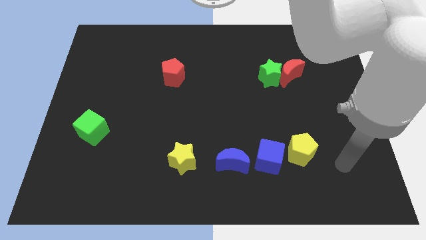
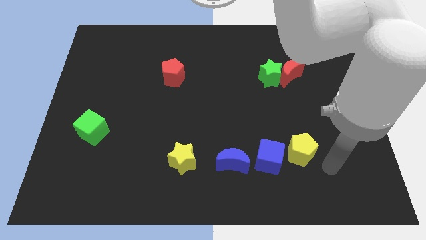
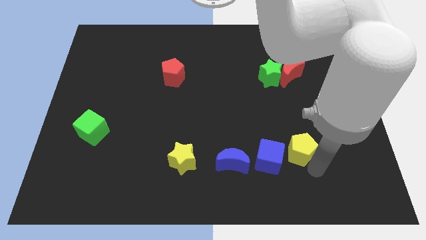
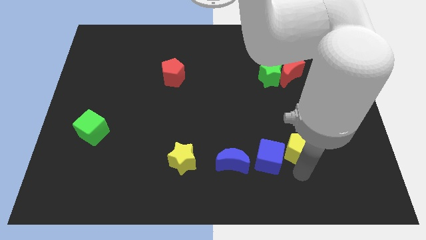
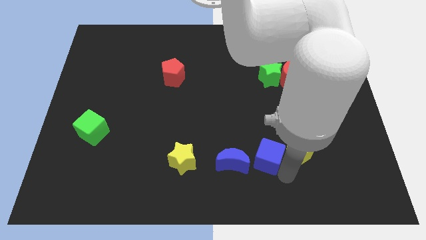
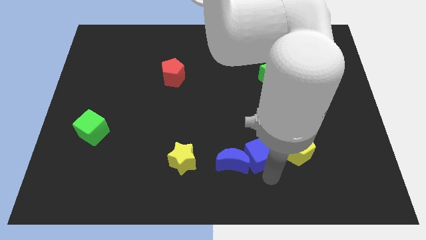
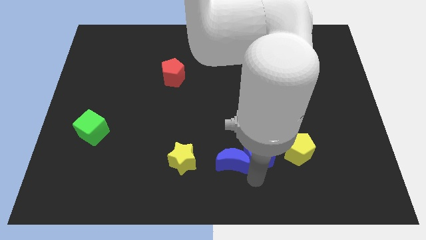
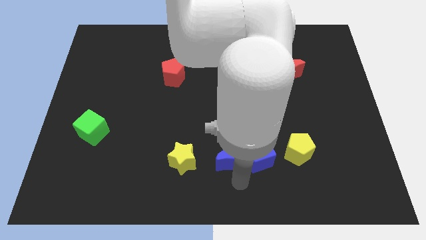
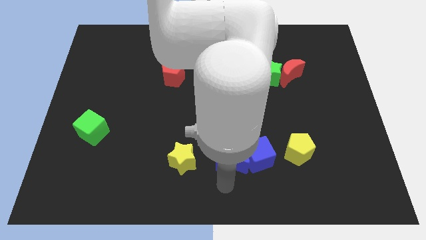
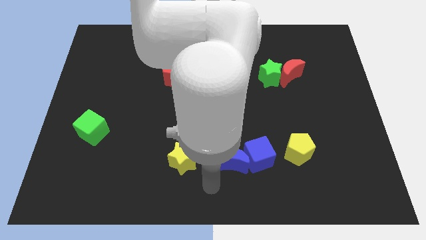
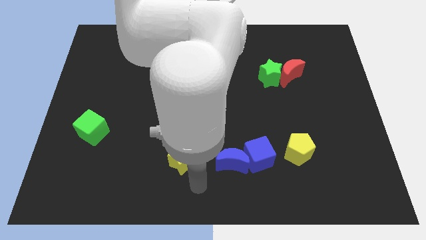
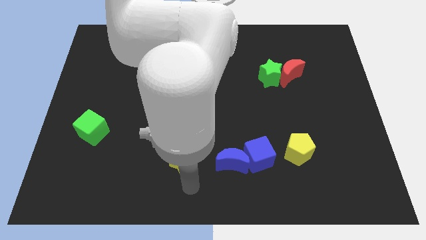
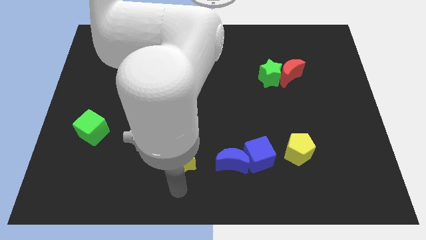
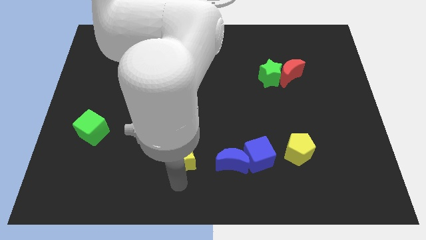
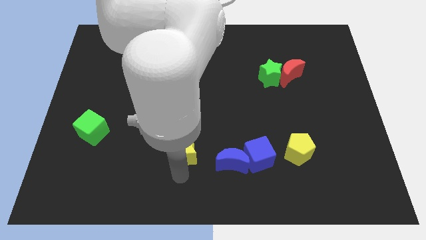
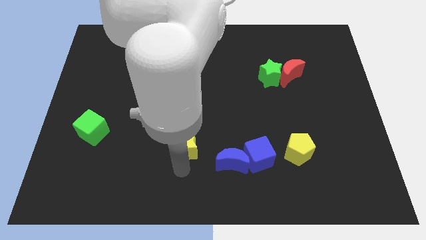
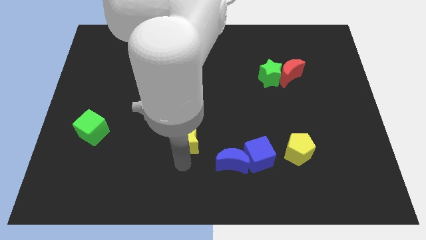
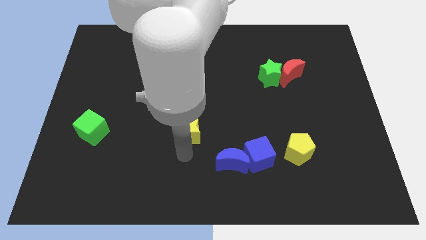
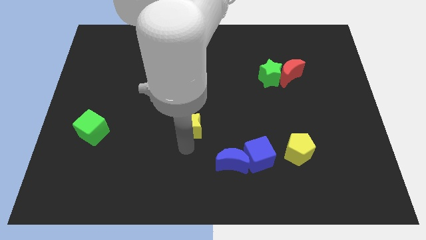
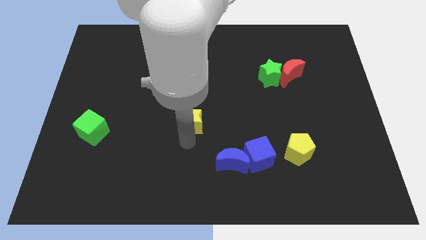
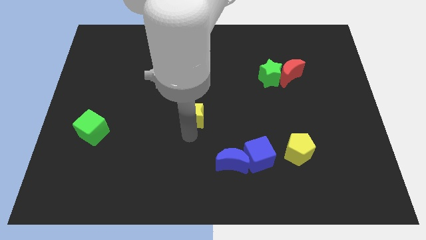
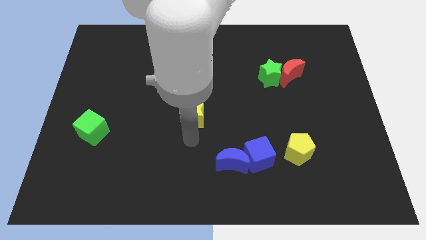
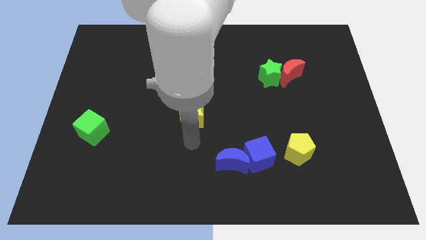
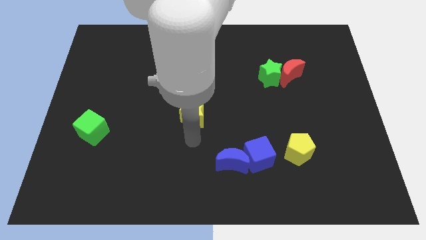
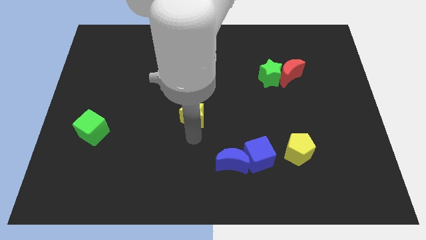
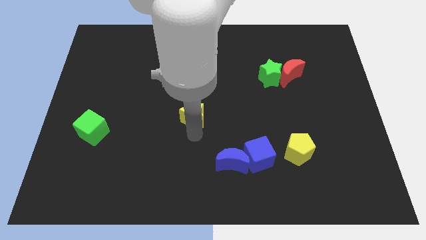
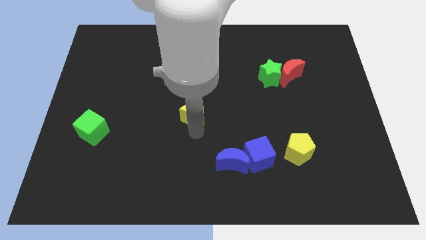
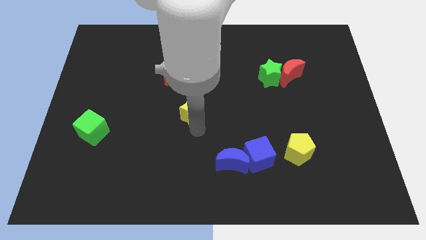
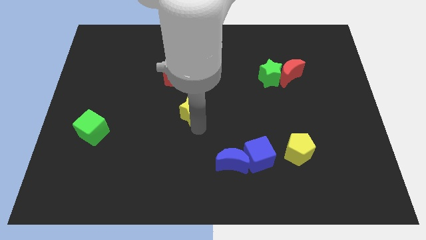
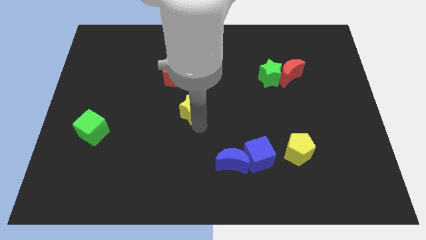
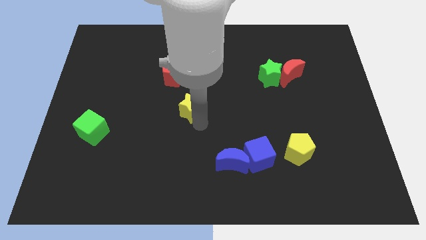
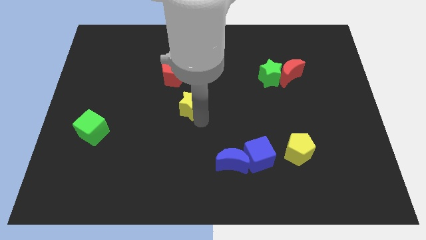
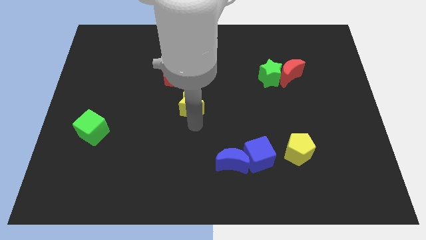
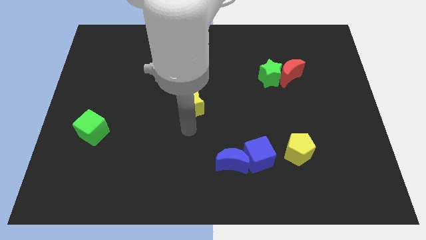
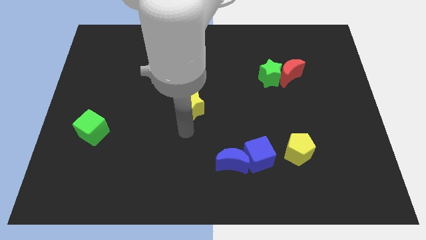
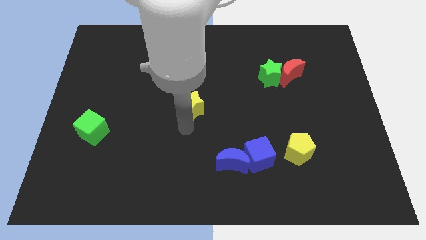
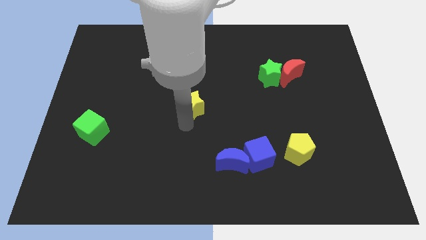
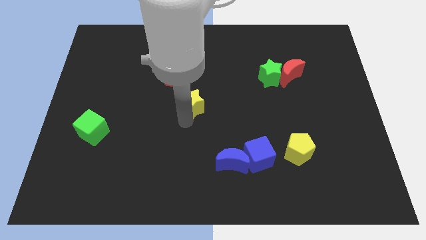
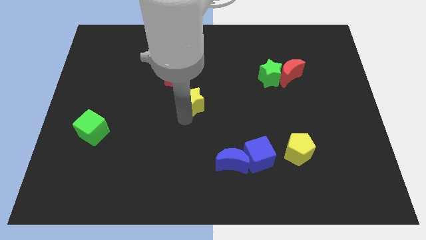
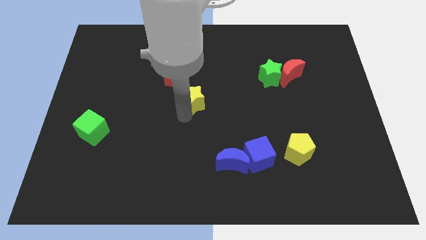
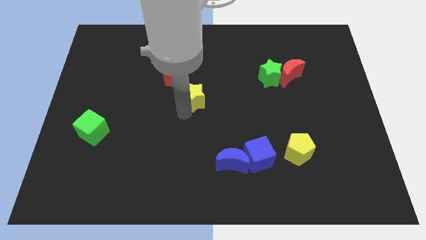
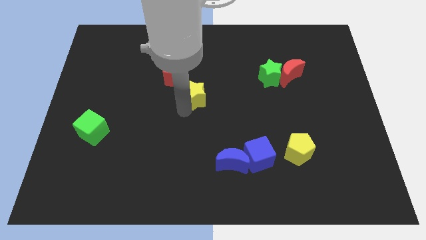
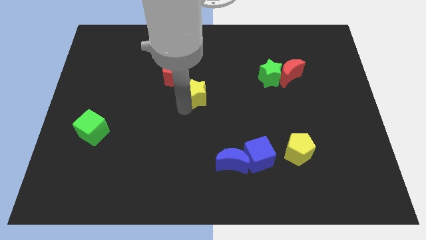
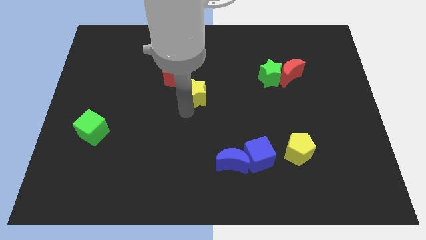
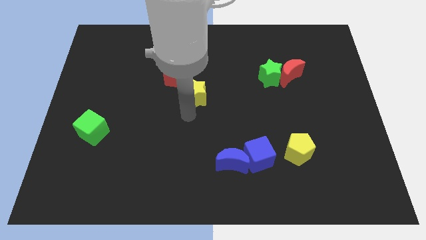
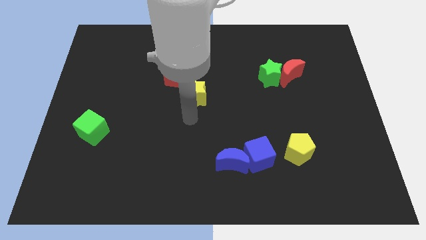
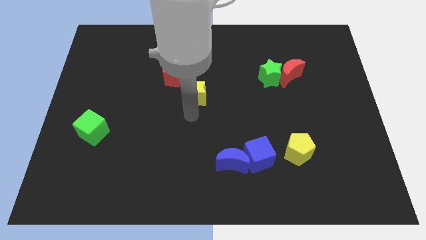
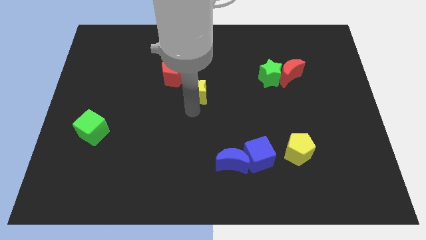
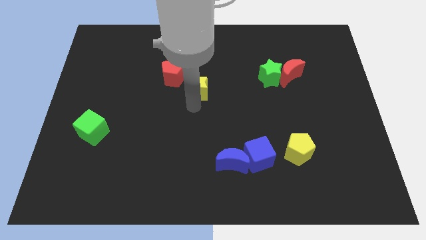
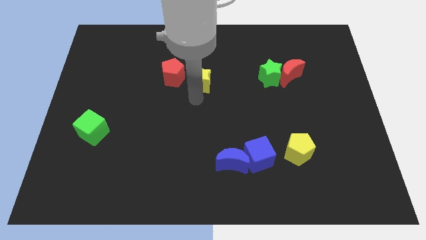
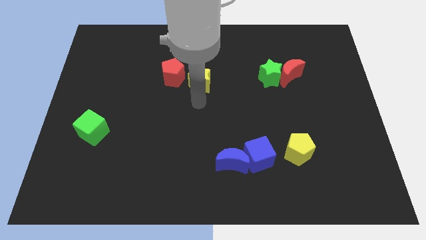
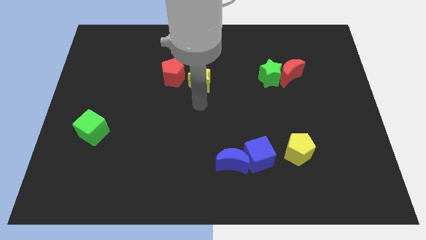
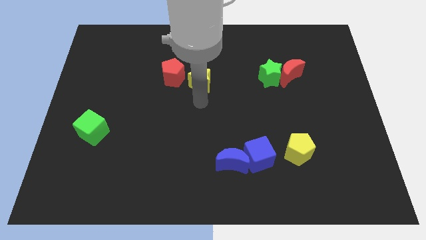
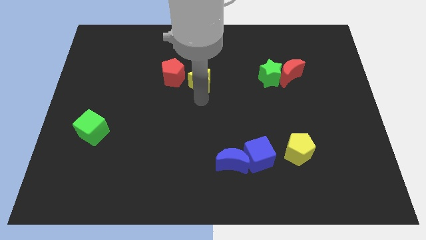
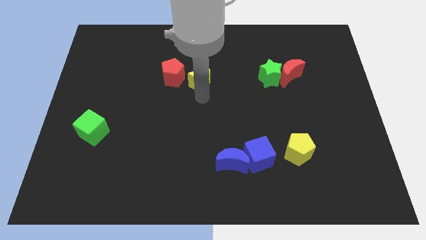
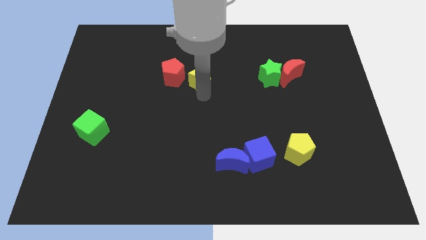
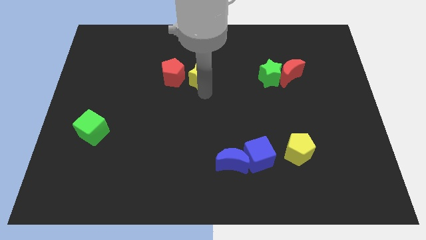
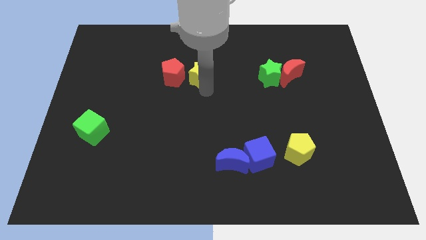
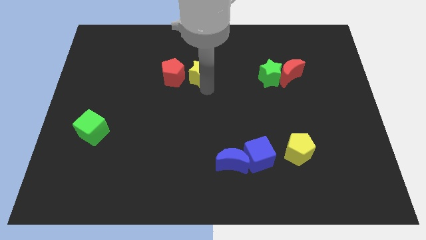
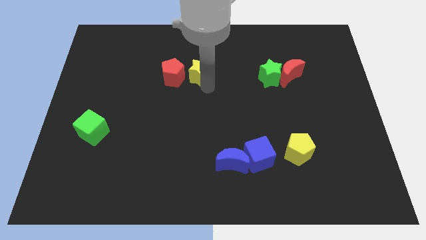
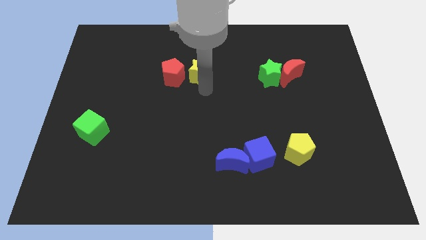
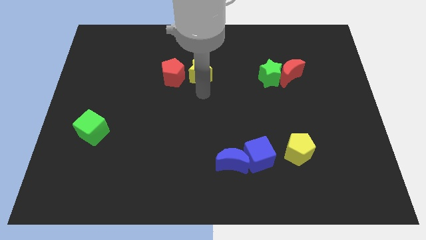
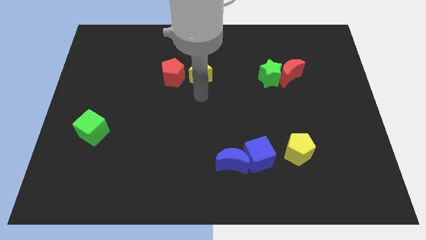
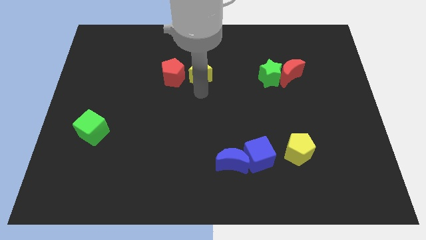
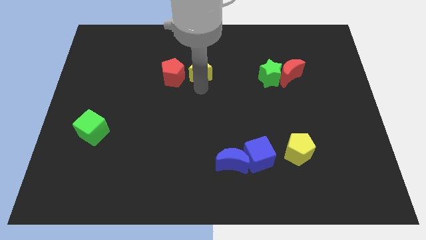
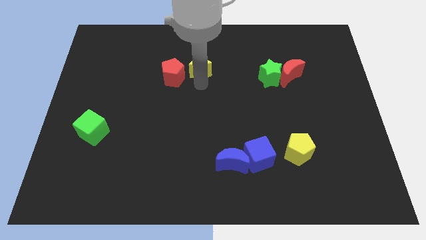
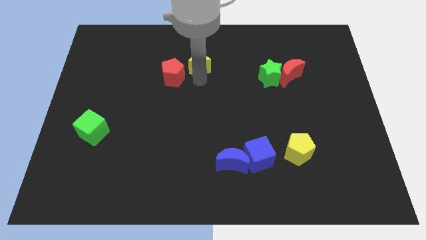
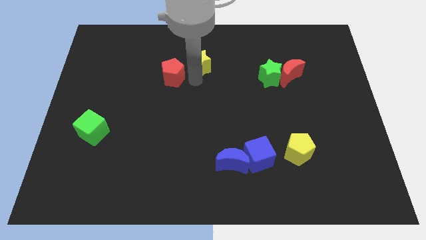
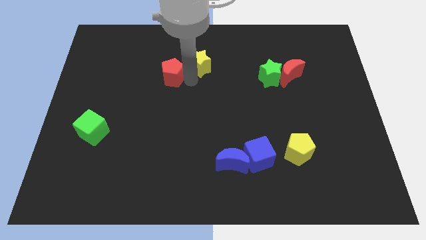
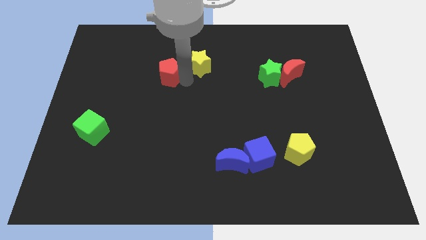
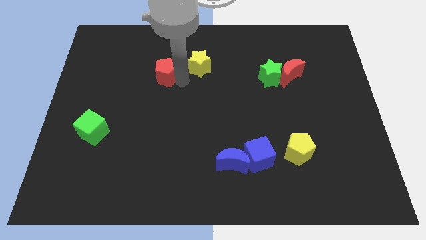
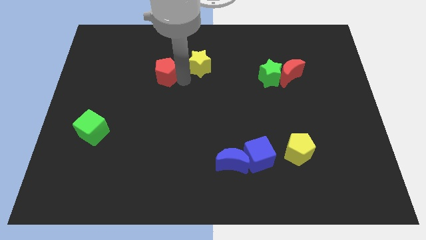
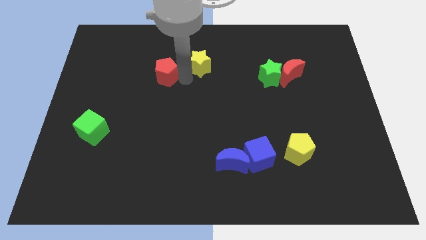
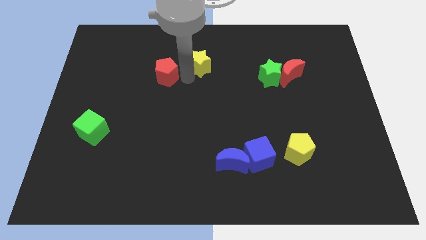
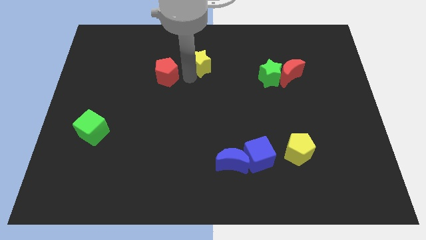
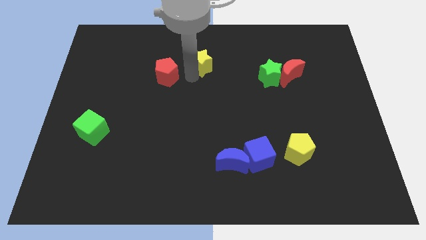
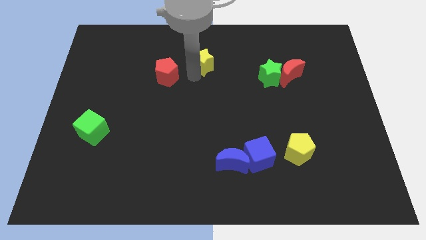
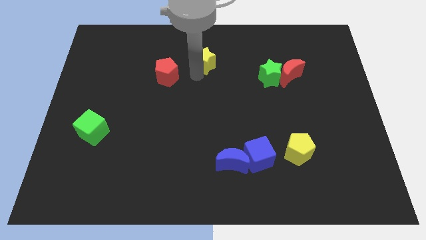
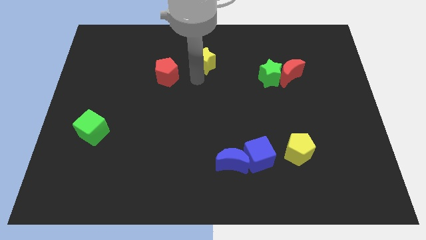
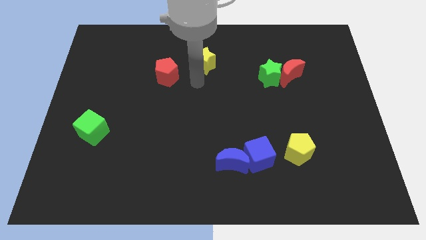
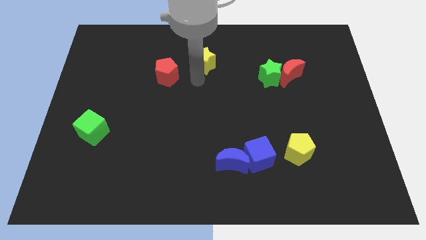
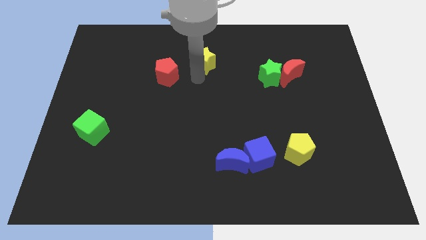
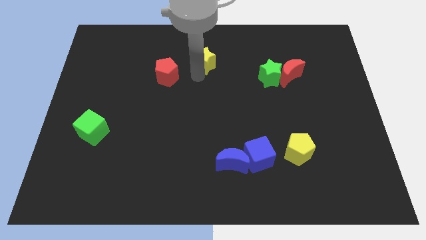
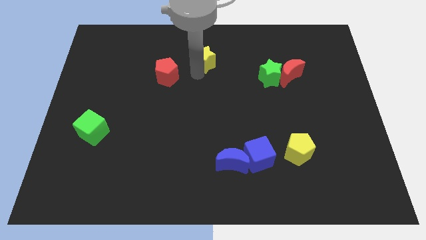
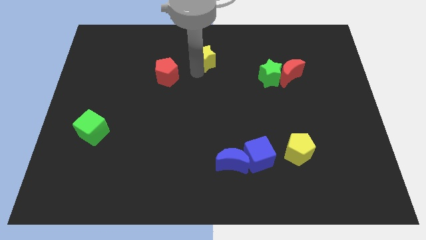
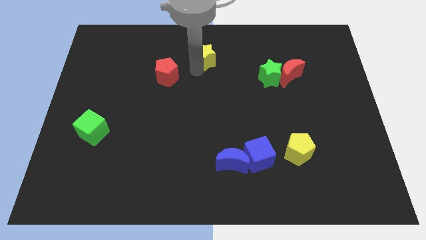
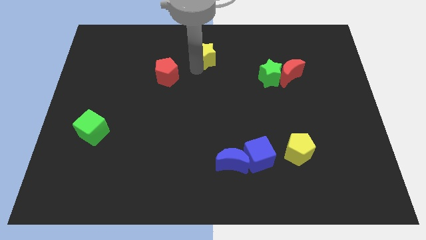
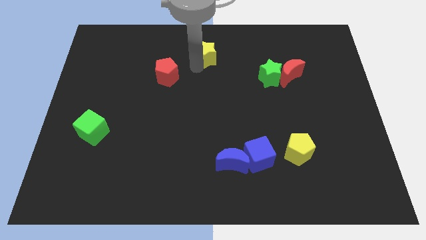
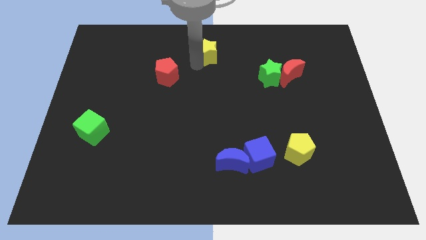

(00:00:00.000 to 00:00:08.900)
move the yellow star to the towards your base
